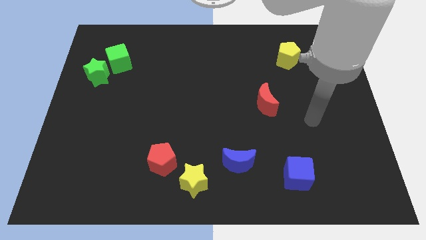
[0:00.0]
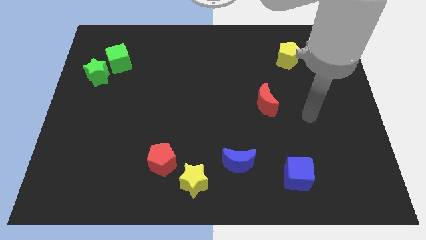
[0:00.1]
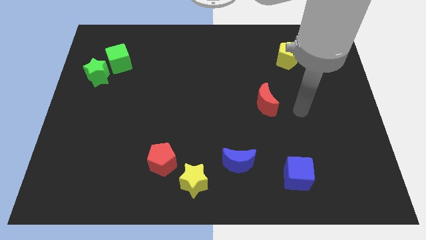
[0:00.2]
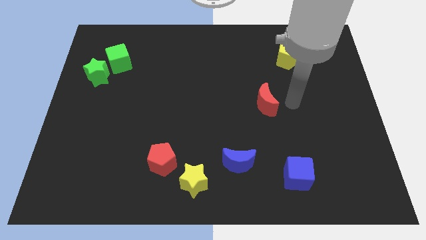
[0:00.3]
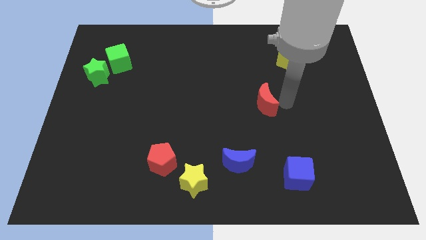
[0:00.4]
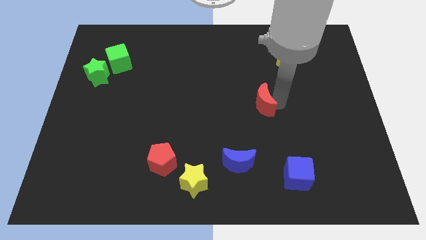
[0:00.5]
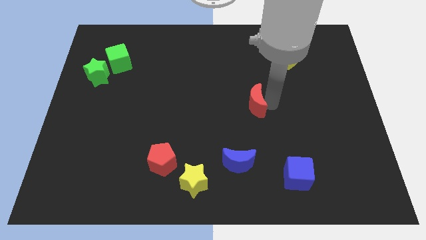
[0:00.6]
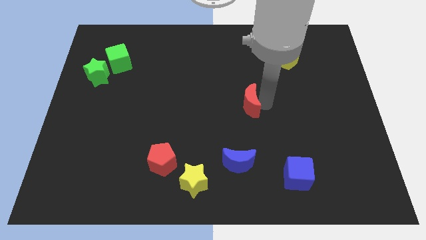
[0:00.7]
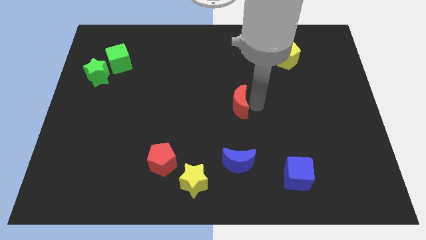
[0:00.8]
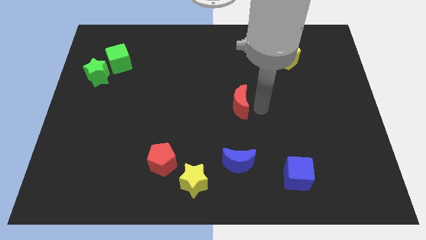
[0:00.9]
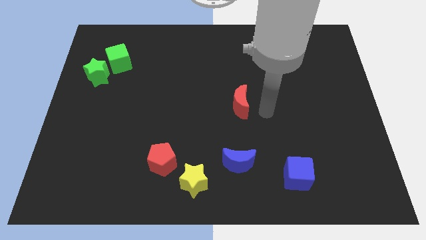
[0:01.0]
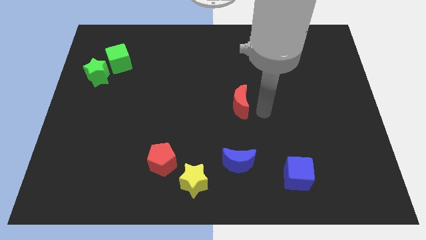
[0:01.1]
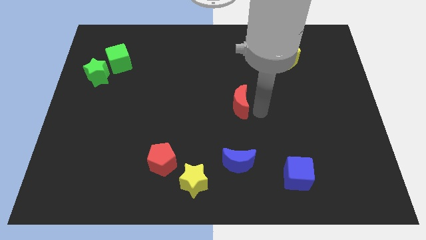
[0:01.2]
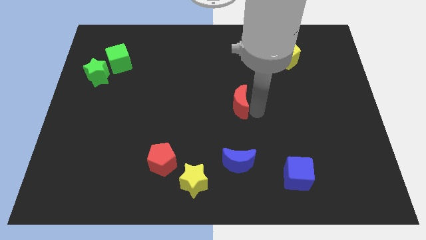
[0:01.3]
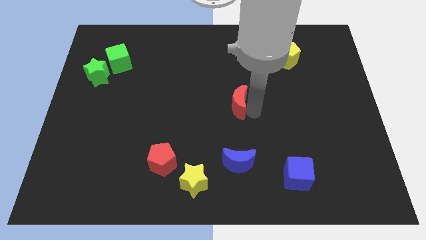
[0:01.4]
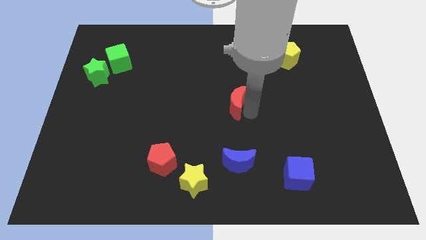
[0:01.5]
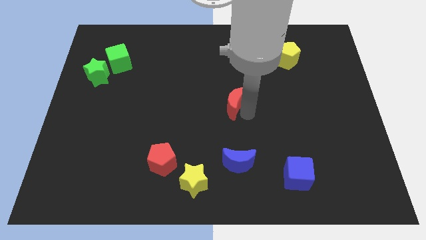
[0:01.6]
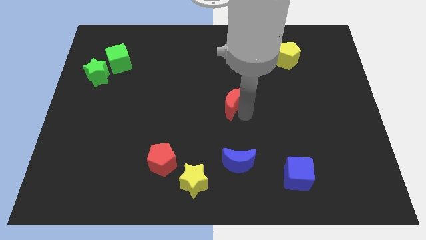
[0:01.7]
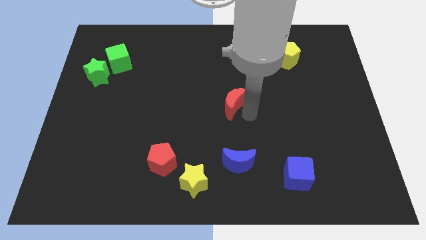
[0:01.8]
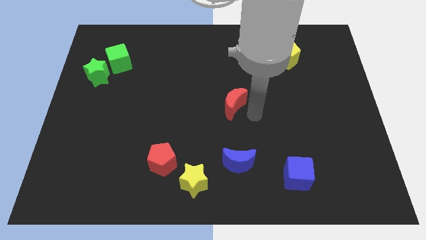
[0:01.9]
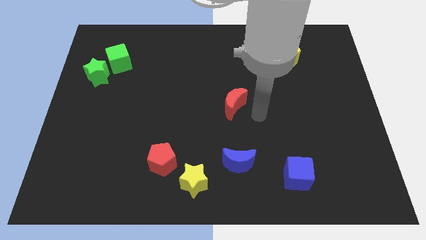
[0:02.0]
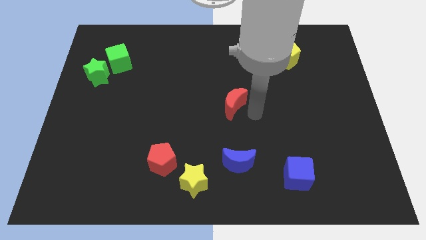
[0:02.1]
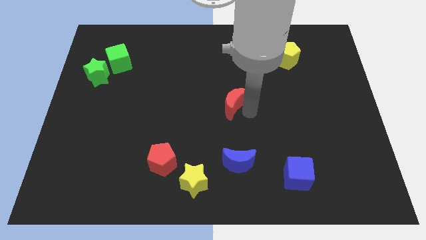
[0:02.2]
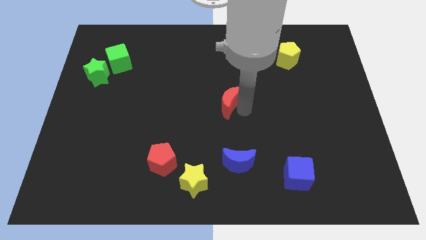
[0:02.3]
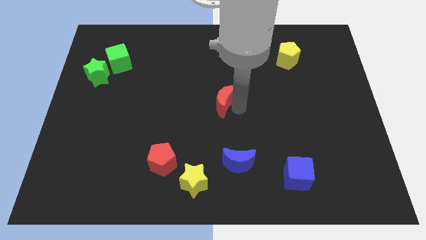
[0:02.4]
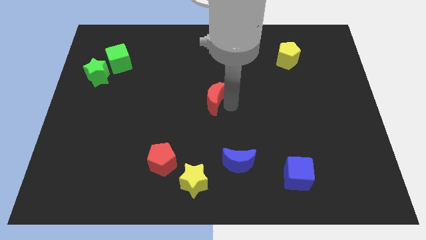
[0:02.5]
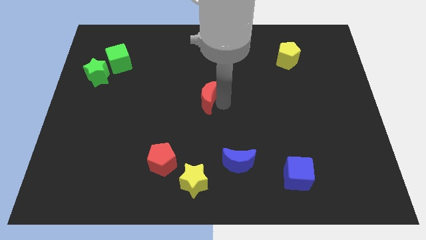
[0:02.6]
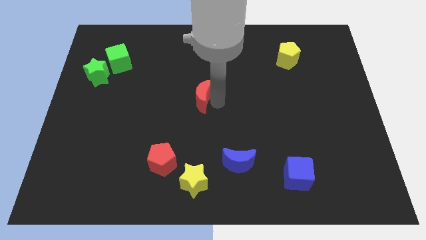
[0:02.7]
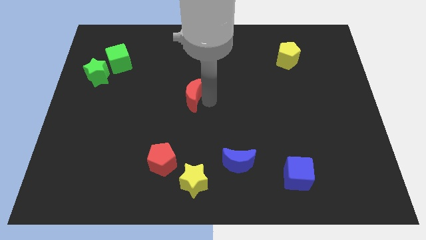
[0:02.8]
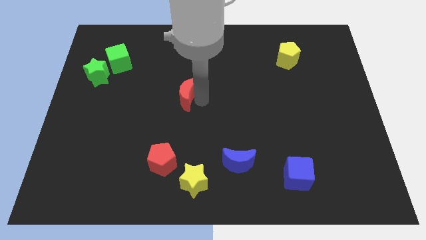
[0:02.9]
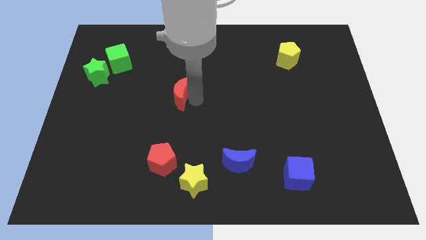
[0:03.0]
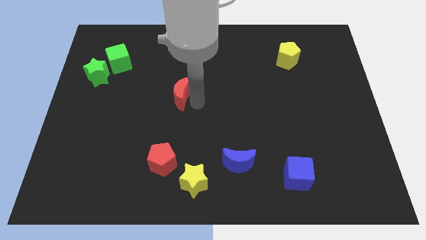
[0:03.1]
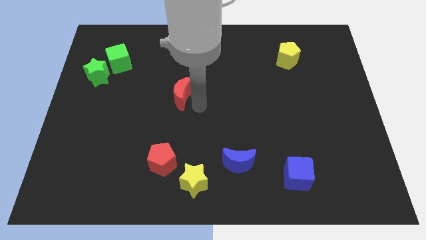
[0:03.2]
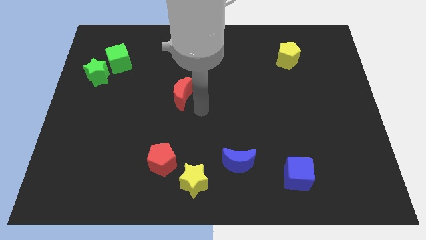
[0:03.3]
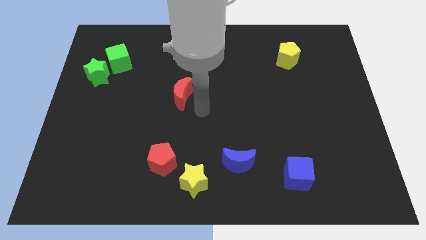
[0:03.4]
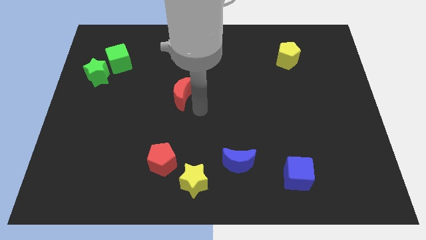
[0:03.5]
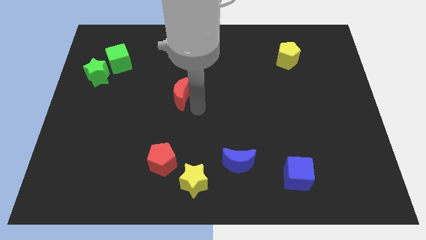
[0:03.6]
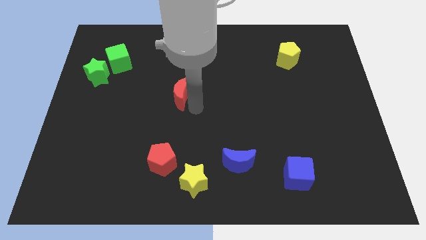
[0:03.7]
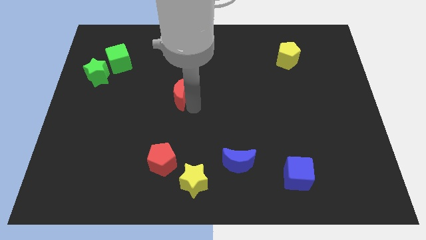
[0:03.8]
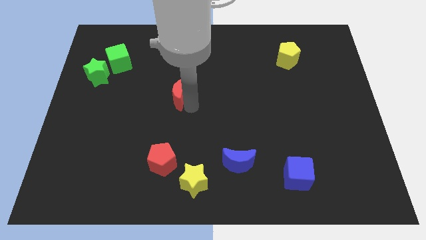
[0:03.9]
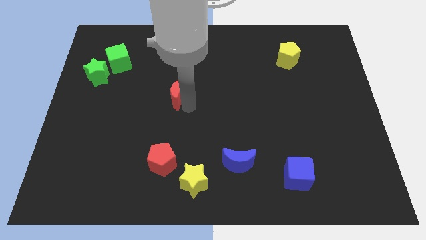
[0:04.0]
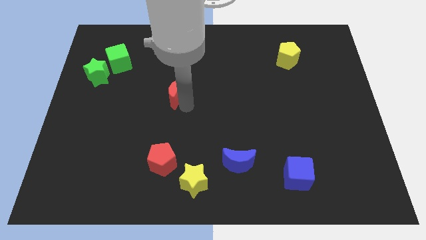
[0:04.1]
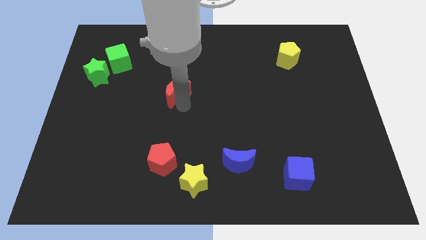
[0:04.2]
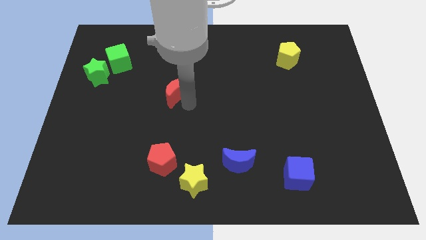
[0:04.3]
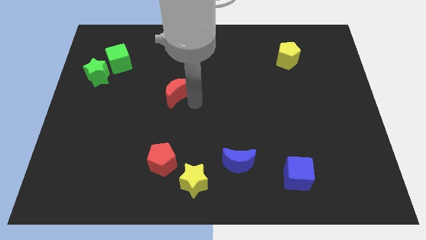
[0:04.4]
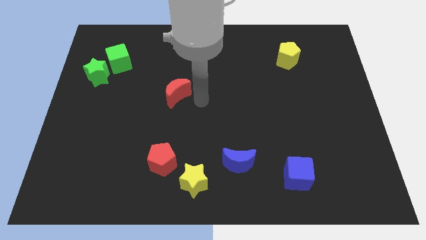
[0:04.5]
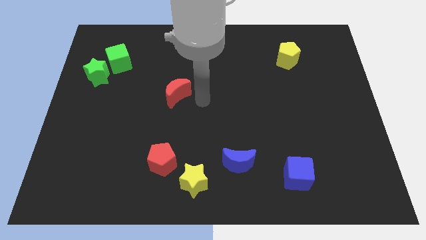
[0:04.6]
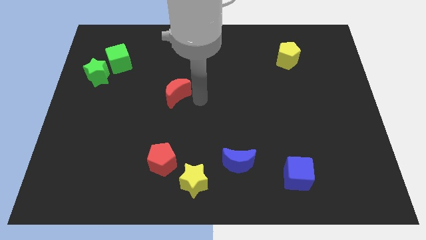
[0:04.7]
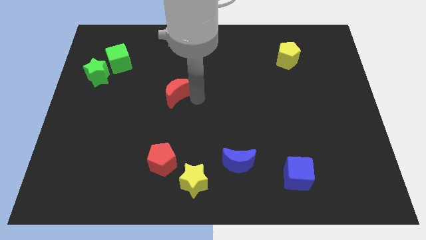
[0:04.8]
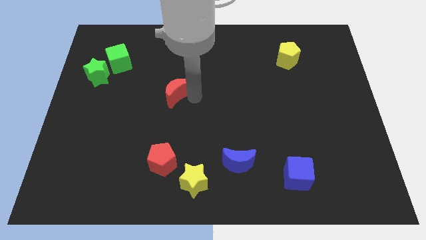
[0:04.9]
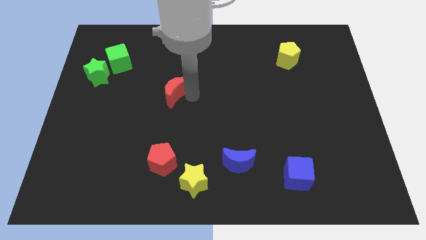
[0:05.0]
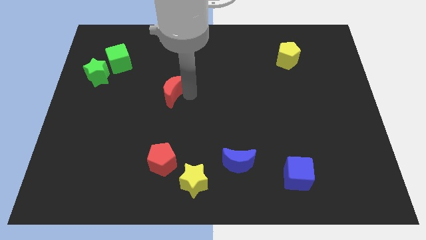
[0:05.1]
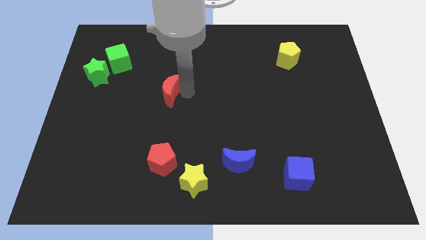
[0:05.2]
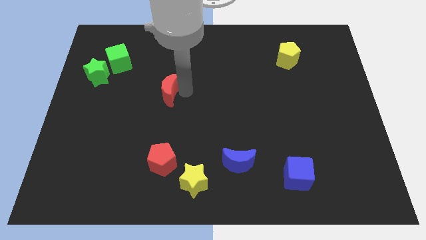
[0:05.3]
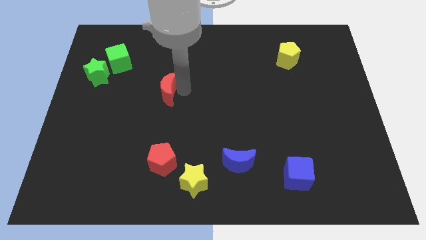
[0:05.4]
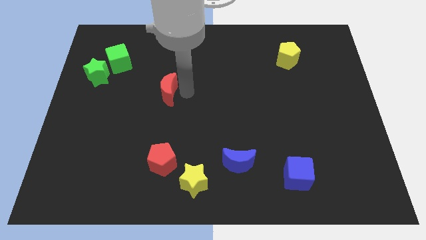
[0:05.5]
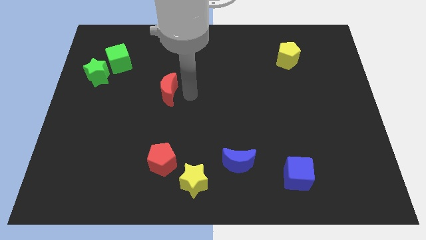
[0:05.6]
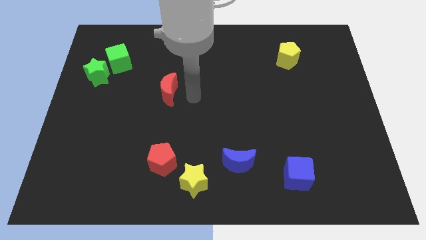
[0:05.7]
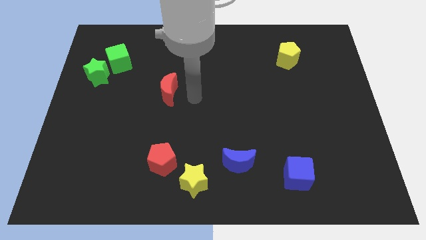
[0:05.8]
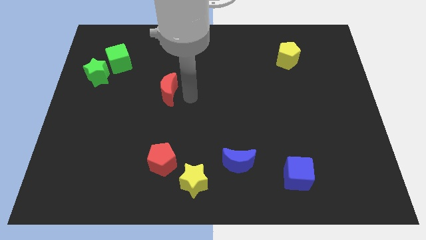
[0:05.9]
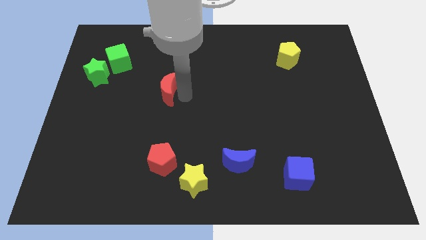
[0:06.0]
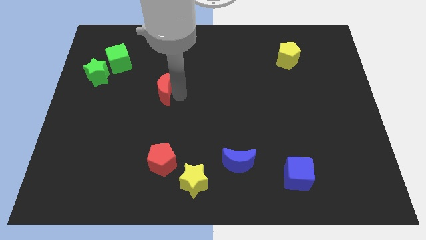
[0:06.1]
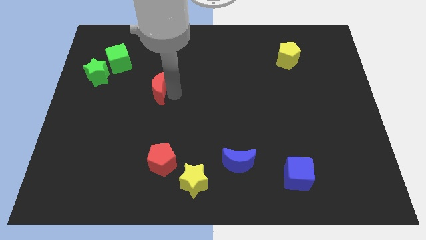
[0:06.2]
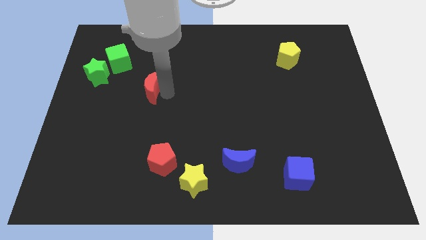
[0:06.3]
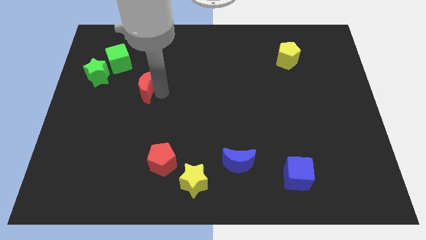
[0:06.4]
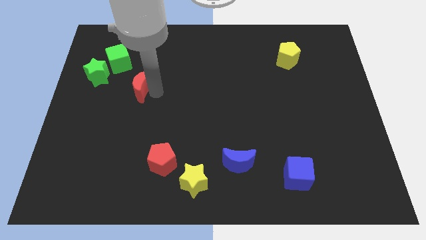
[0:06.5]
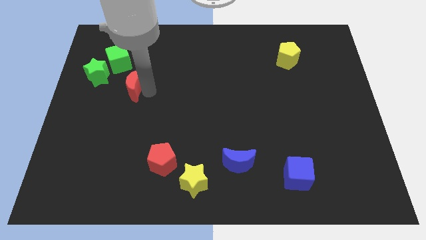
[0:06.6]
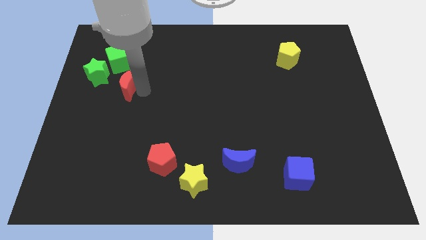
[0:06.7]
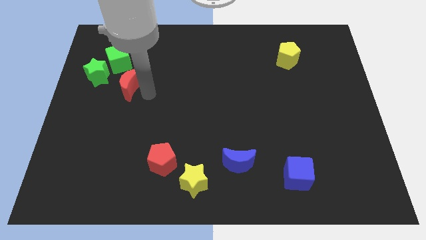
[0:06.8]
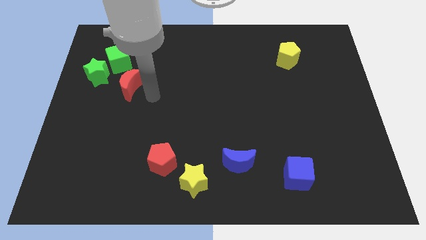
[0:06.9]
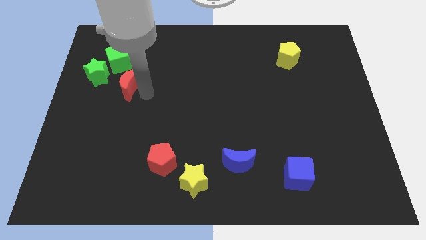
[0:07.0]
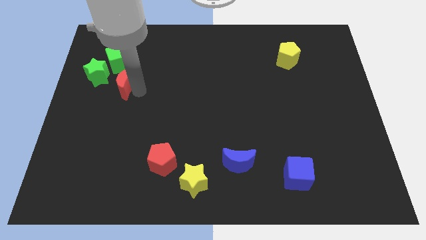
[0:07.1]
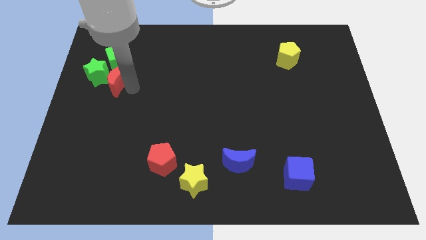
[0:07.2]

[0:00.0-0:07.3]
move the red moon close to the green star

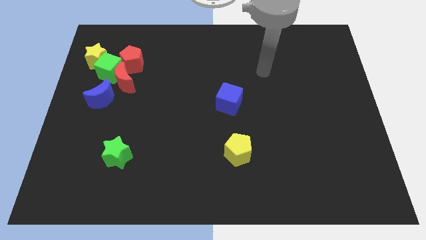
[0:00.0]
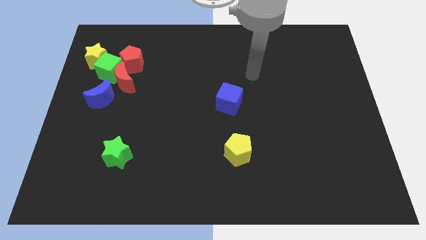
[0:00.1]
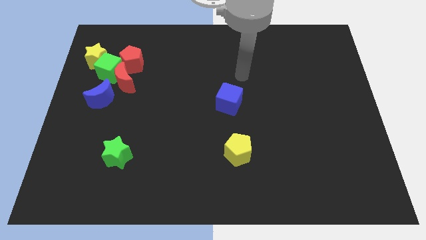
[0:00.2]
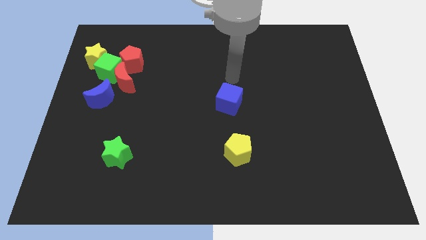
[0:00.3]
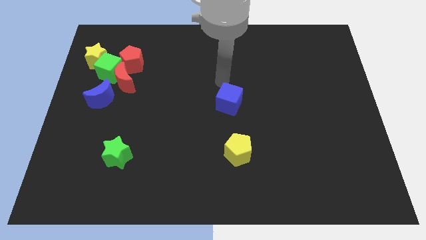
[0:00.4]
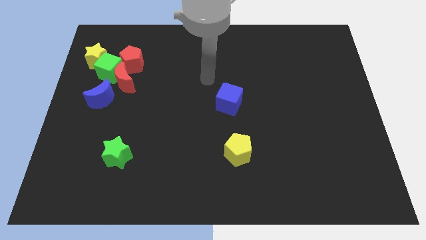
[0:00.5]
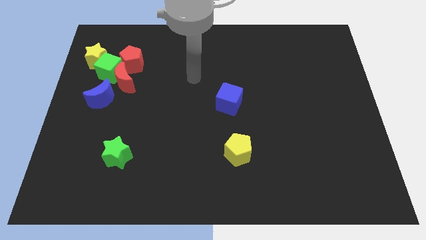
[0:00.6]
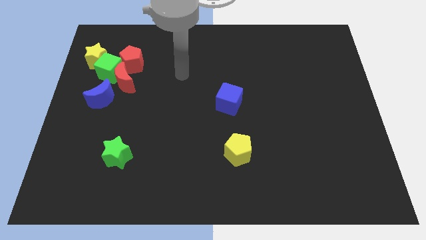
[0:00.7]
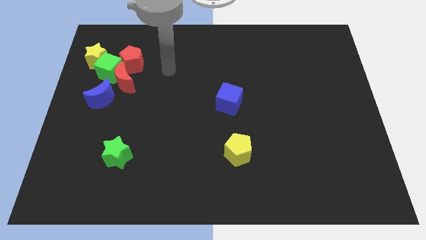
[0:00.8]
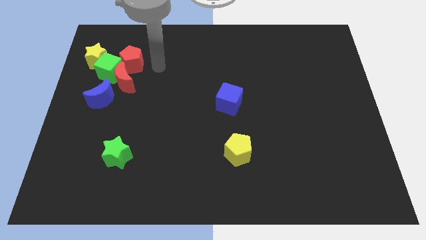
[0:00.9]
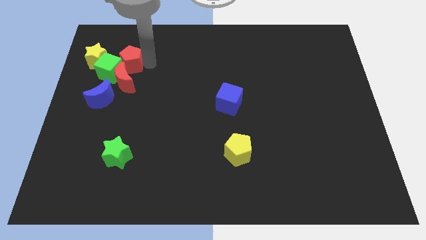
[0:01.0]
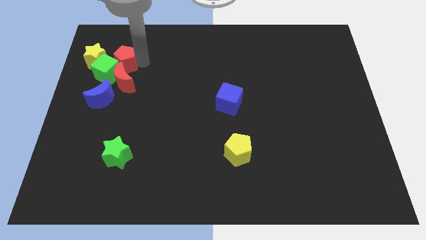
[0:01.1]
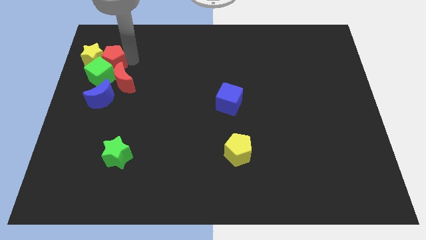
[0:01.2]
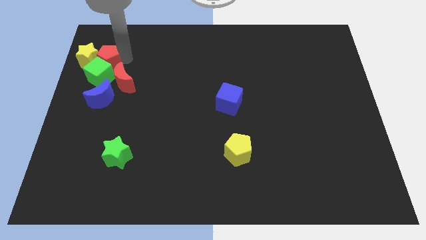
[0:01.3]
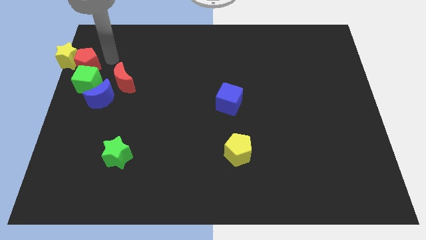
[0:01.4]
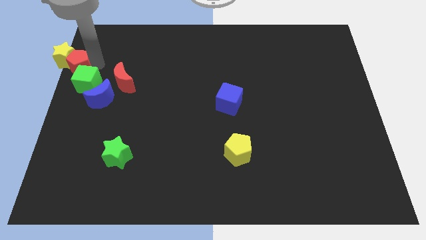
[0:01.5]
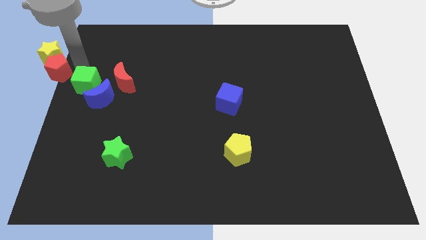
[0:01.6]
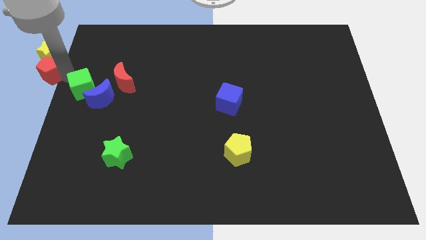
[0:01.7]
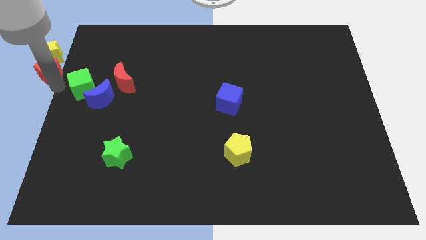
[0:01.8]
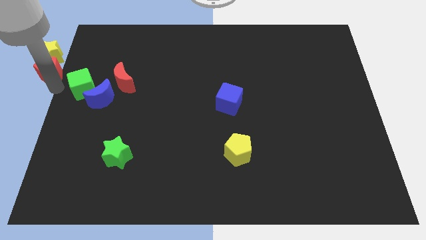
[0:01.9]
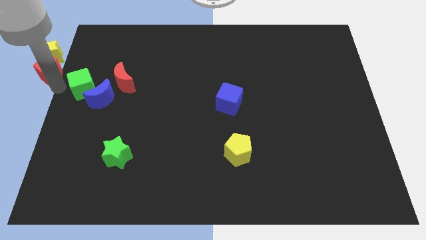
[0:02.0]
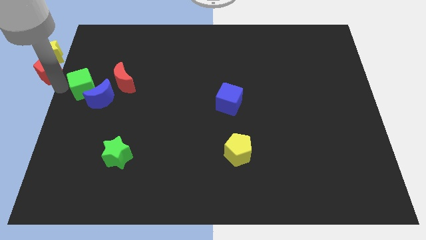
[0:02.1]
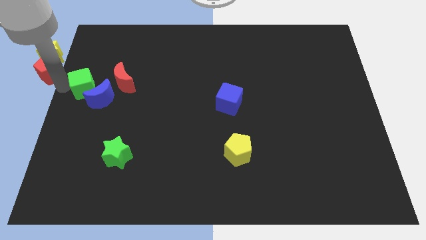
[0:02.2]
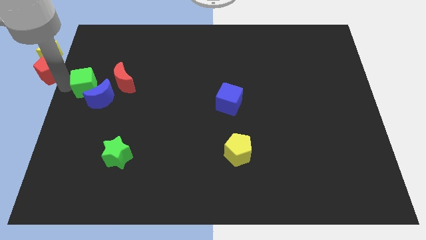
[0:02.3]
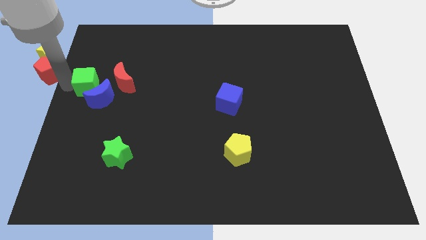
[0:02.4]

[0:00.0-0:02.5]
slide the green cube to the blue moon
